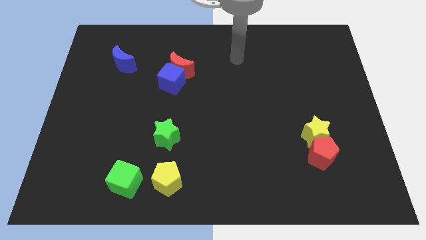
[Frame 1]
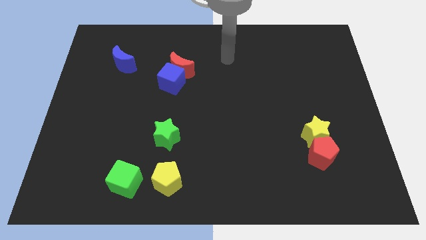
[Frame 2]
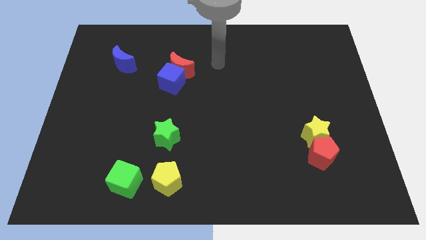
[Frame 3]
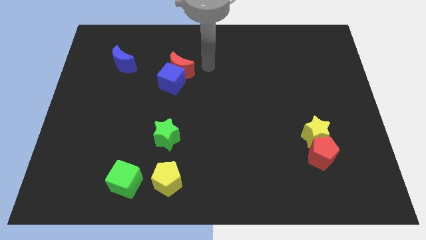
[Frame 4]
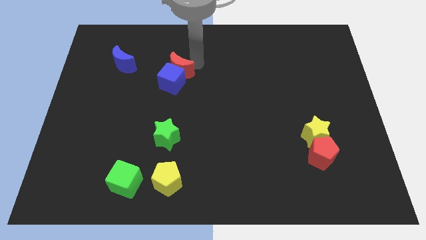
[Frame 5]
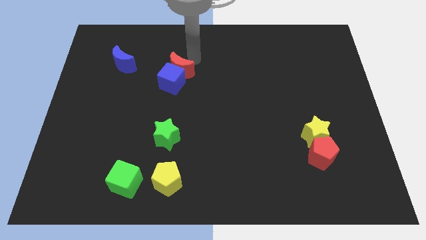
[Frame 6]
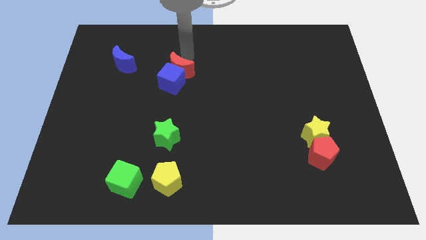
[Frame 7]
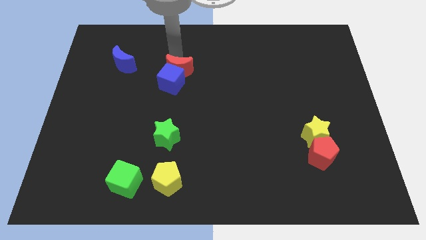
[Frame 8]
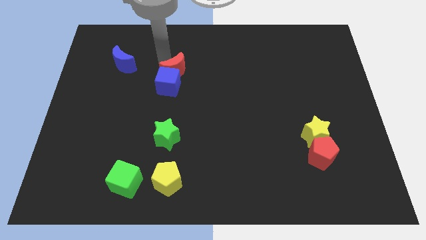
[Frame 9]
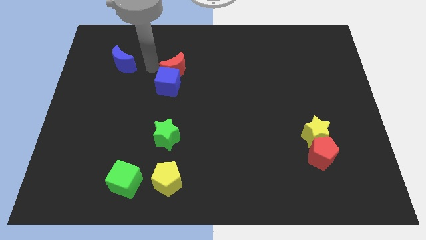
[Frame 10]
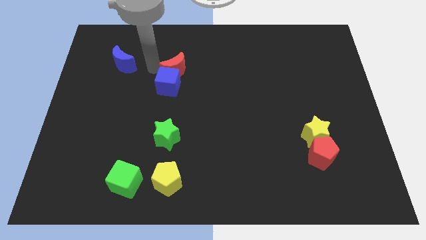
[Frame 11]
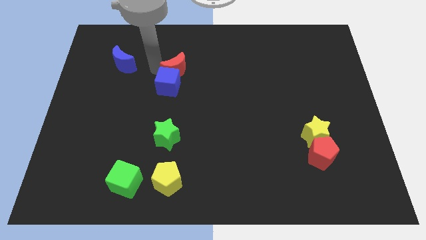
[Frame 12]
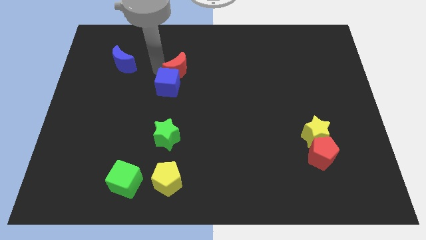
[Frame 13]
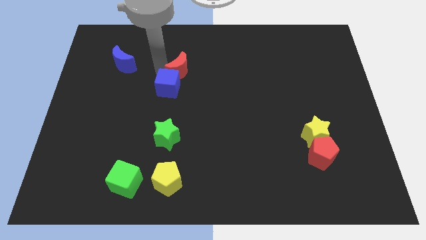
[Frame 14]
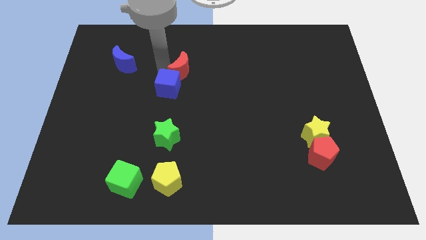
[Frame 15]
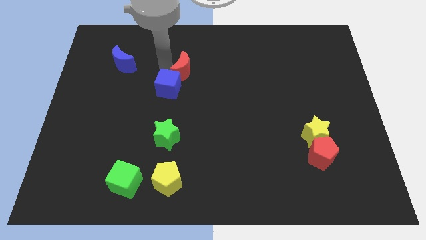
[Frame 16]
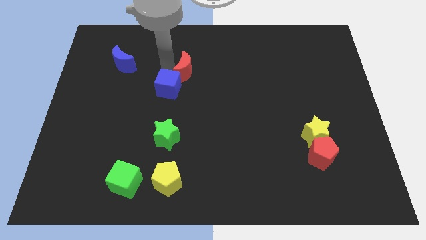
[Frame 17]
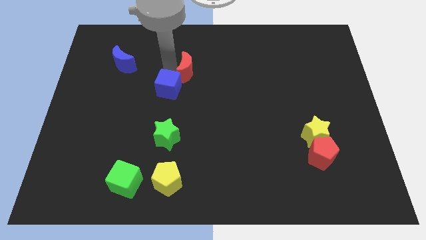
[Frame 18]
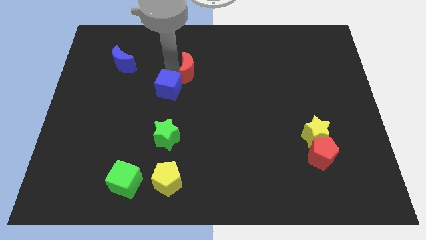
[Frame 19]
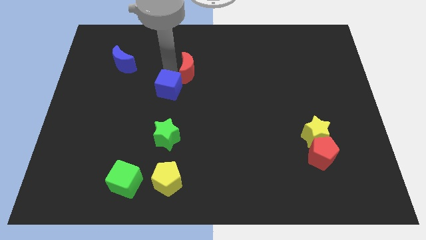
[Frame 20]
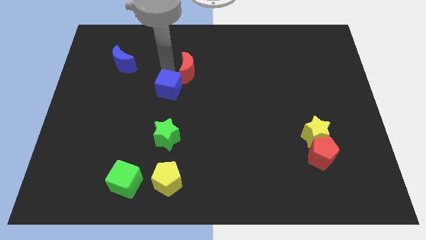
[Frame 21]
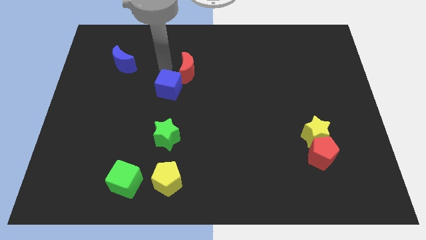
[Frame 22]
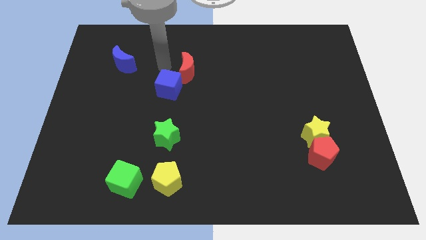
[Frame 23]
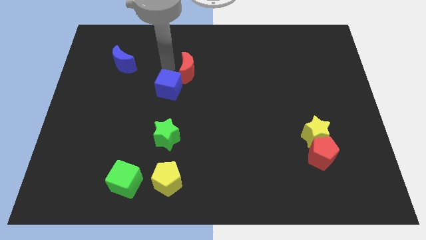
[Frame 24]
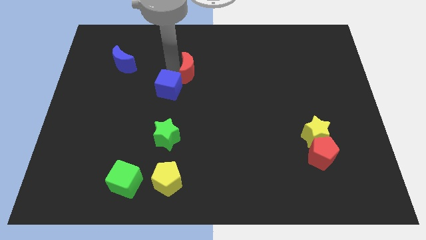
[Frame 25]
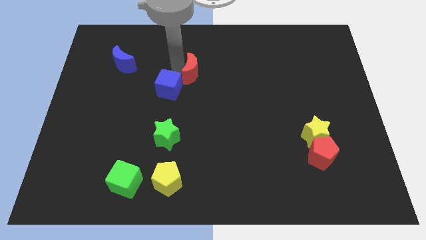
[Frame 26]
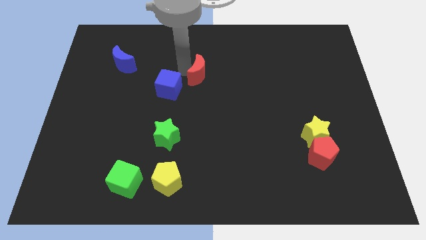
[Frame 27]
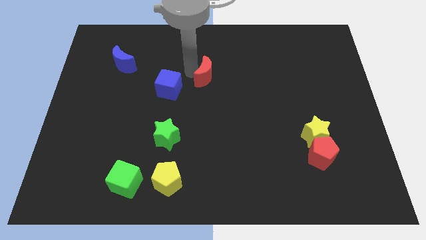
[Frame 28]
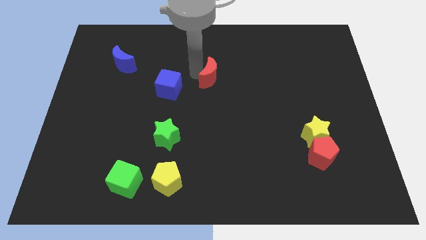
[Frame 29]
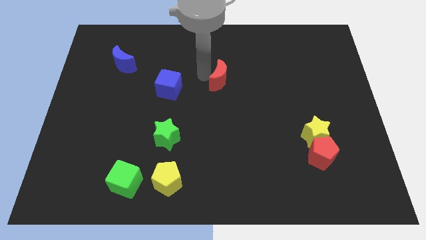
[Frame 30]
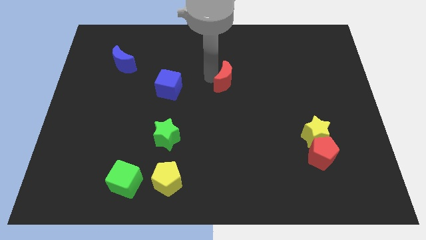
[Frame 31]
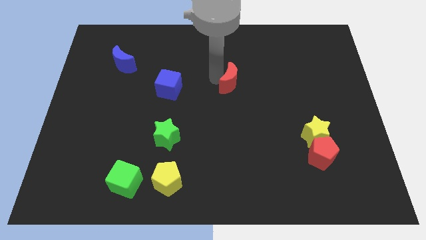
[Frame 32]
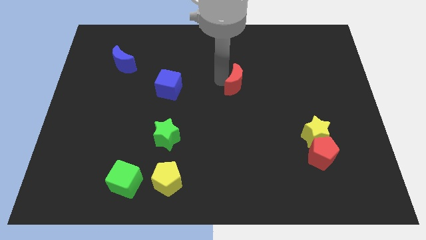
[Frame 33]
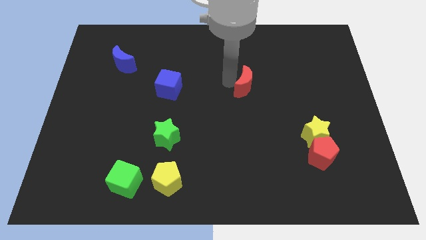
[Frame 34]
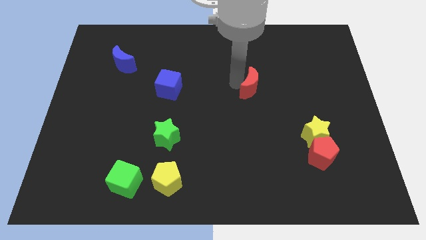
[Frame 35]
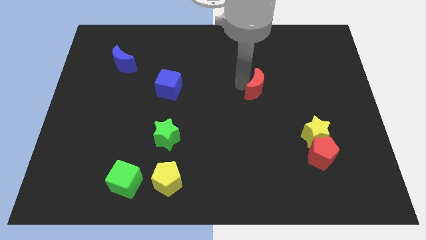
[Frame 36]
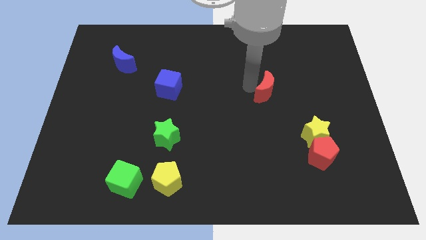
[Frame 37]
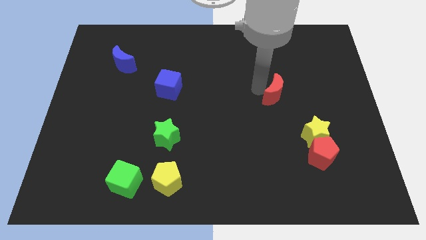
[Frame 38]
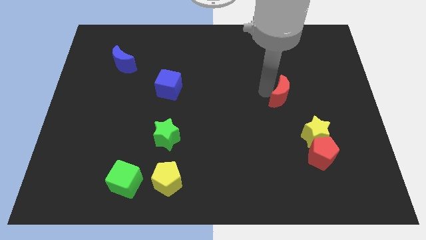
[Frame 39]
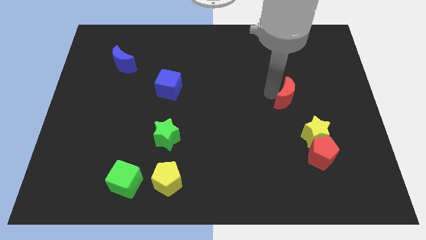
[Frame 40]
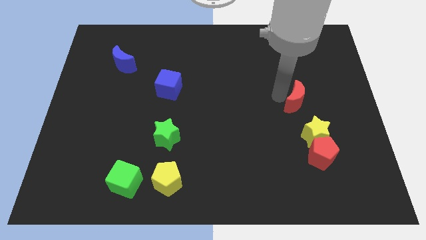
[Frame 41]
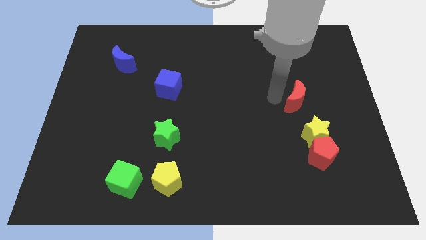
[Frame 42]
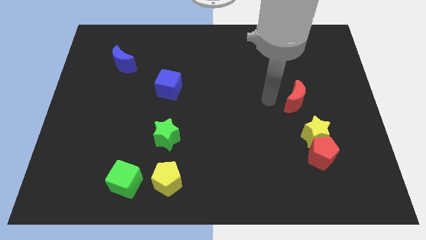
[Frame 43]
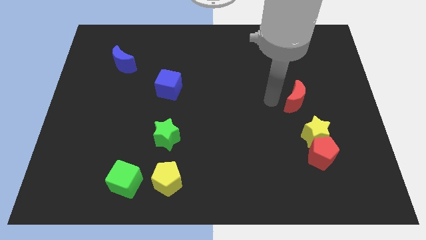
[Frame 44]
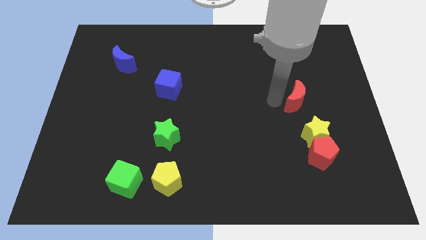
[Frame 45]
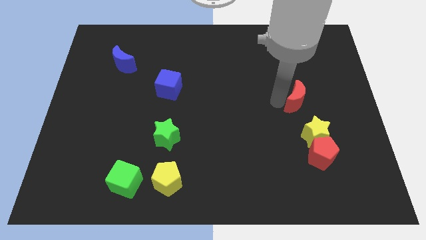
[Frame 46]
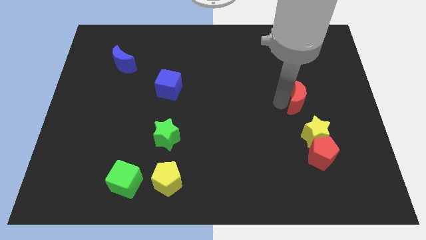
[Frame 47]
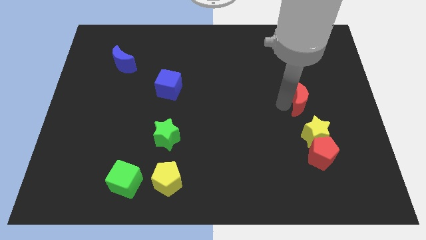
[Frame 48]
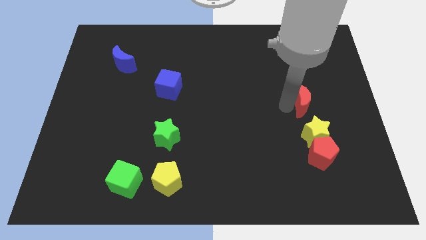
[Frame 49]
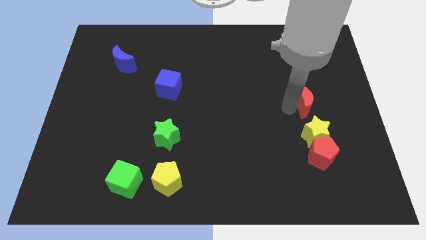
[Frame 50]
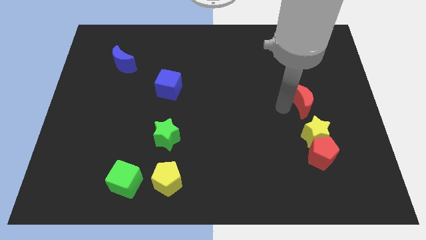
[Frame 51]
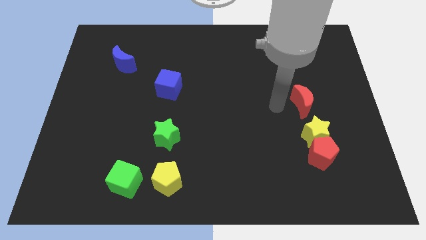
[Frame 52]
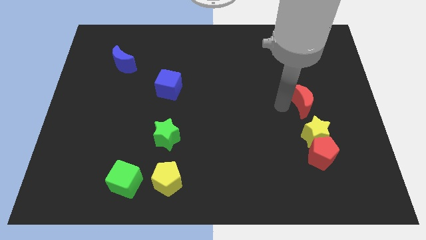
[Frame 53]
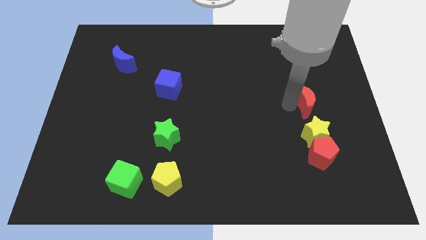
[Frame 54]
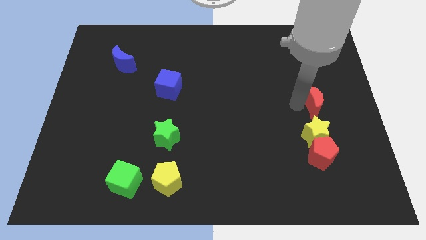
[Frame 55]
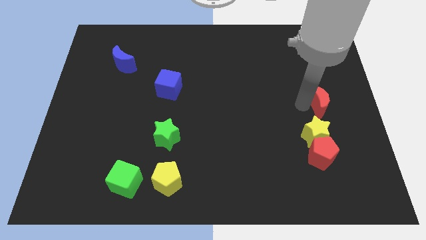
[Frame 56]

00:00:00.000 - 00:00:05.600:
put the red moon to the right side

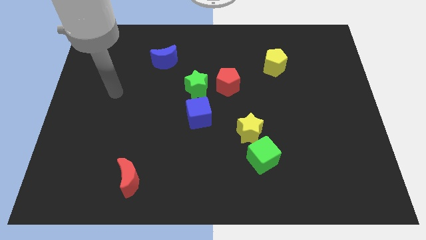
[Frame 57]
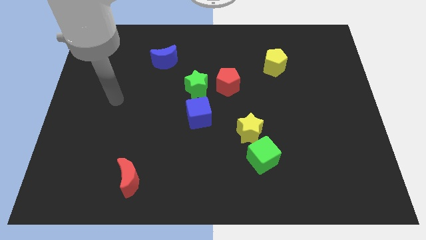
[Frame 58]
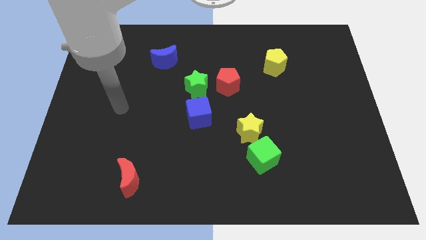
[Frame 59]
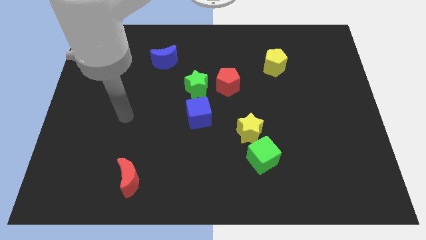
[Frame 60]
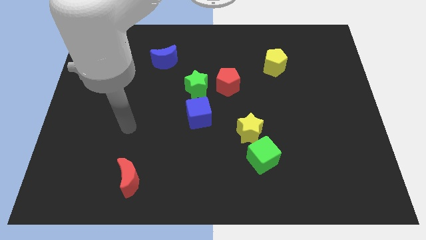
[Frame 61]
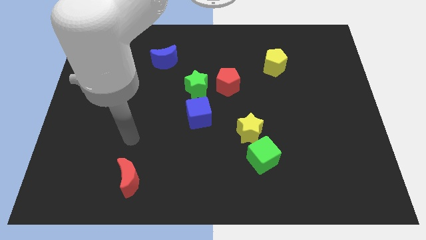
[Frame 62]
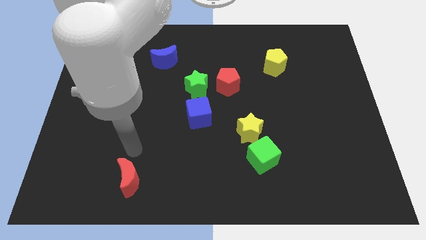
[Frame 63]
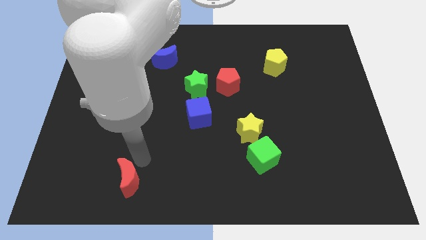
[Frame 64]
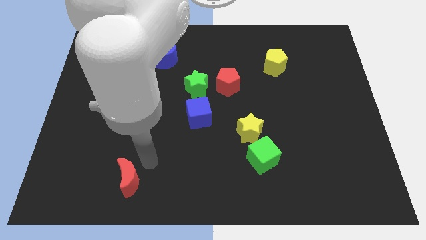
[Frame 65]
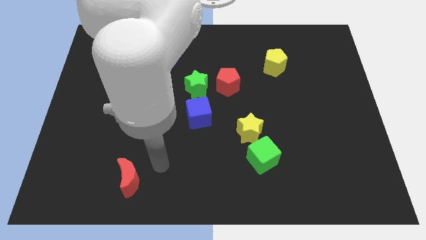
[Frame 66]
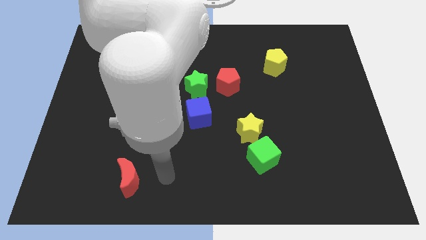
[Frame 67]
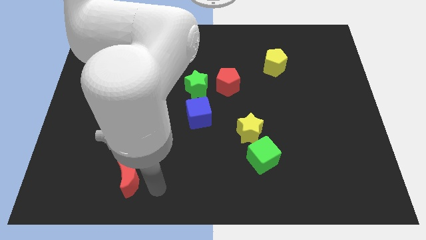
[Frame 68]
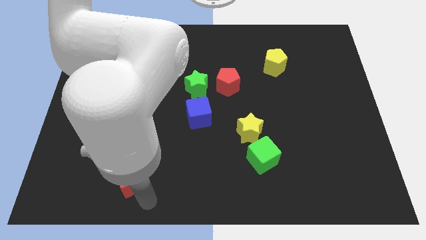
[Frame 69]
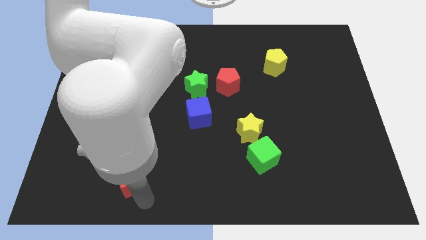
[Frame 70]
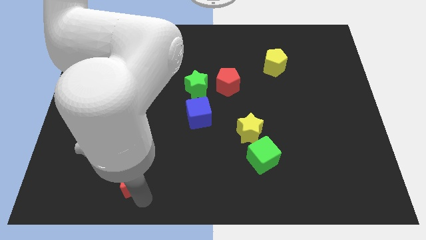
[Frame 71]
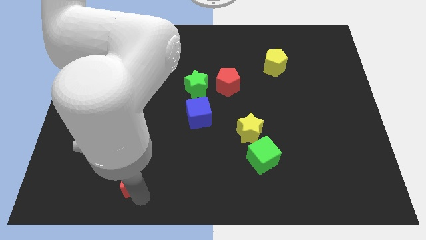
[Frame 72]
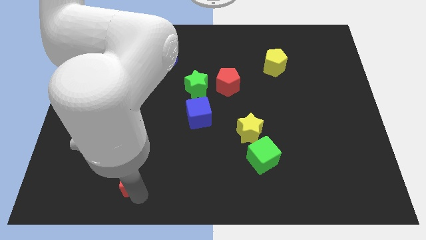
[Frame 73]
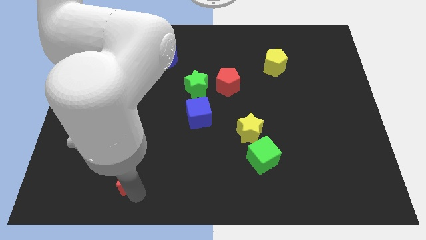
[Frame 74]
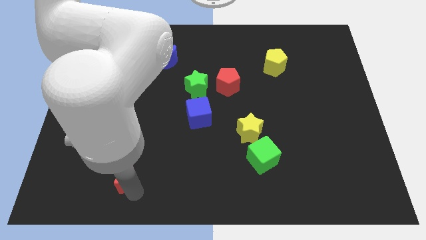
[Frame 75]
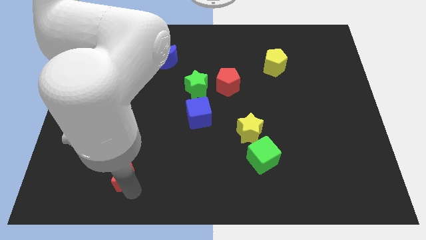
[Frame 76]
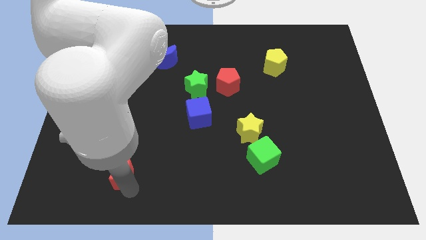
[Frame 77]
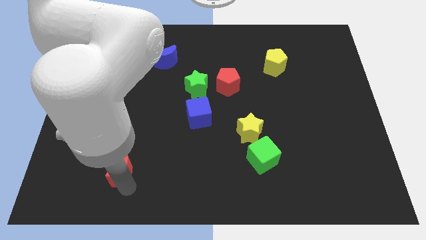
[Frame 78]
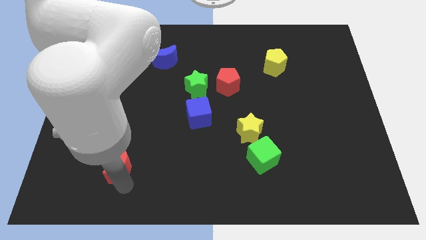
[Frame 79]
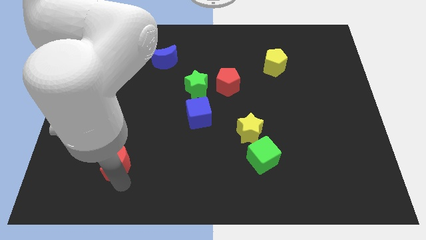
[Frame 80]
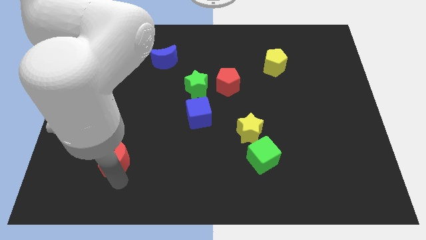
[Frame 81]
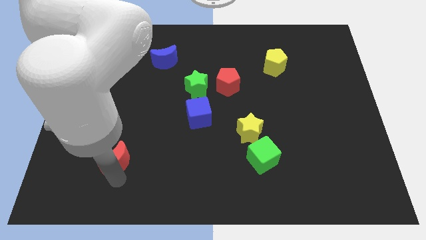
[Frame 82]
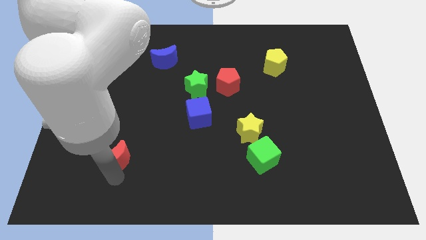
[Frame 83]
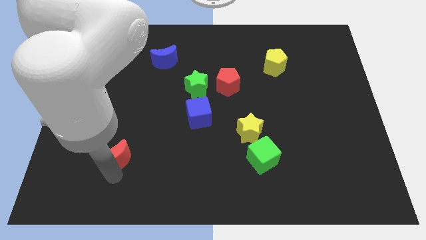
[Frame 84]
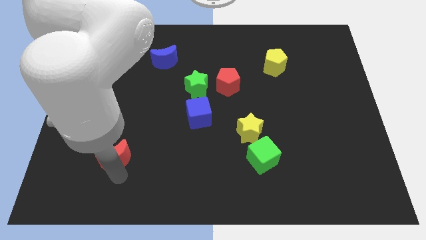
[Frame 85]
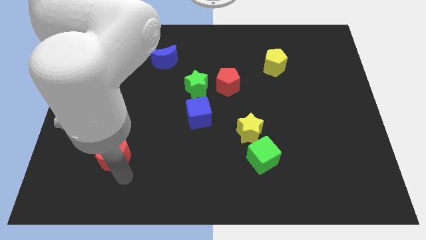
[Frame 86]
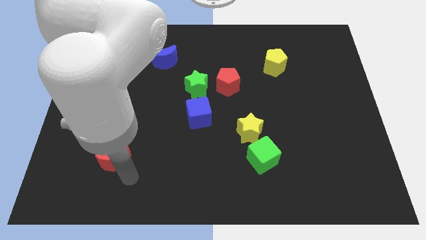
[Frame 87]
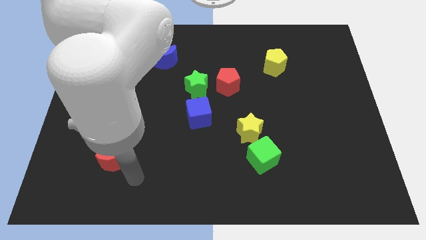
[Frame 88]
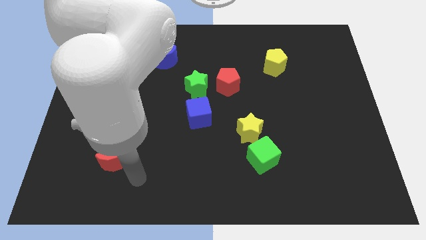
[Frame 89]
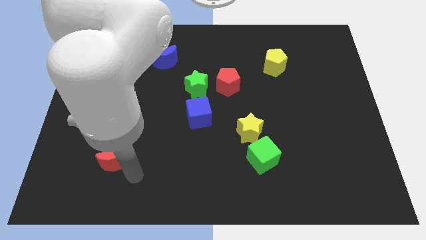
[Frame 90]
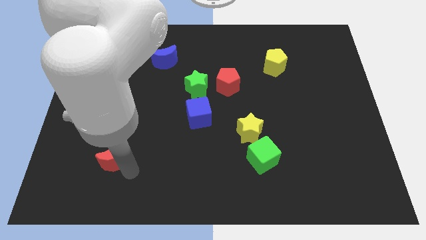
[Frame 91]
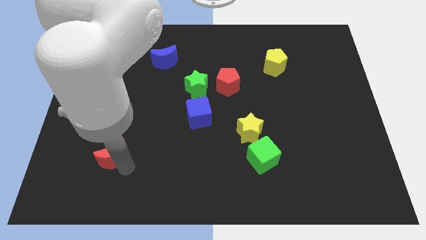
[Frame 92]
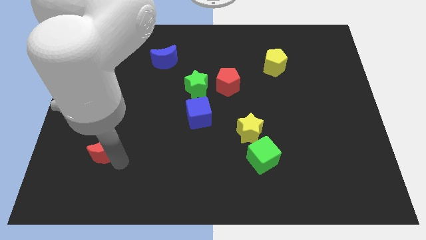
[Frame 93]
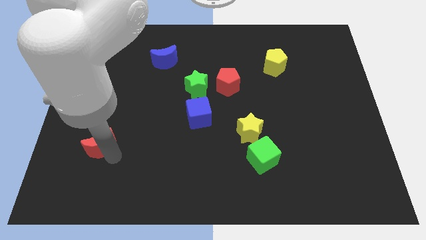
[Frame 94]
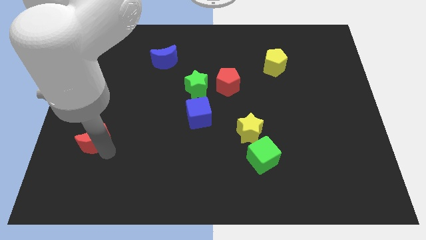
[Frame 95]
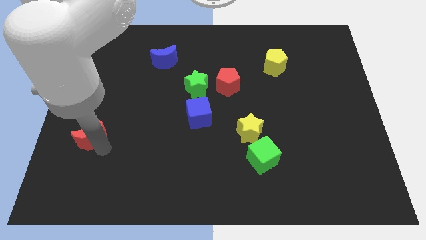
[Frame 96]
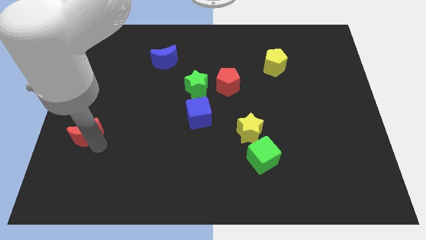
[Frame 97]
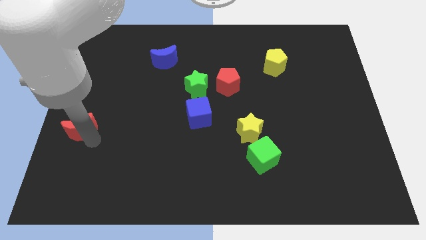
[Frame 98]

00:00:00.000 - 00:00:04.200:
slide the red moon to the center left
